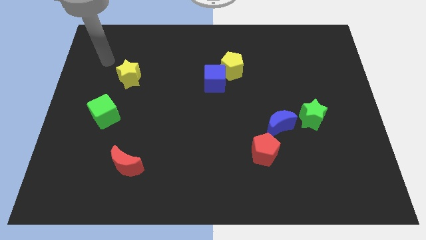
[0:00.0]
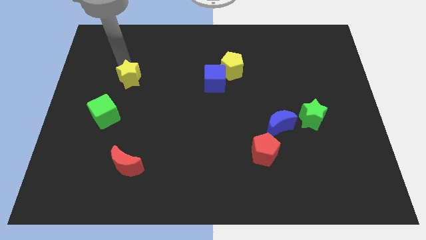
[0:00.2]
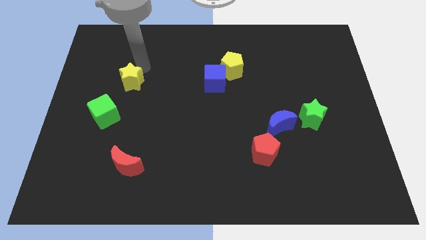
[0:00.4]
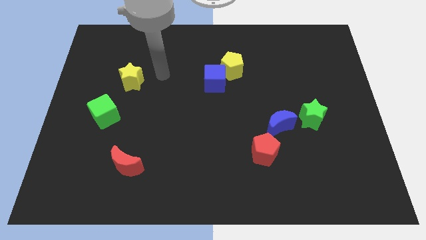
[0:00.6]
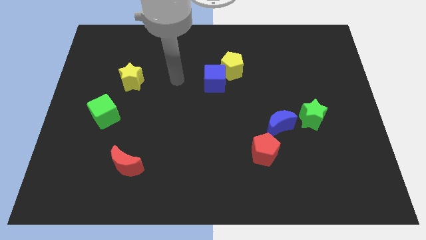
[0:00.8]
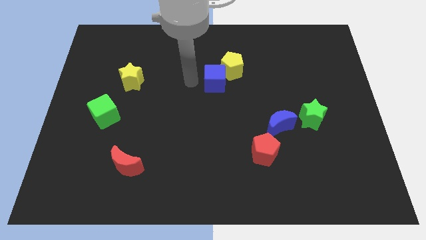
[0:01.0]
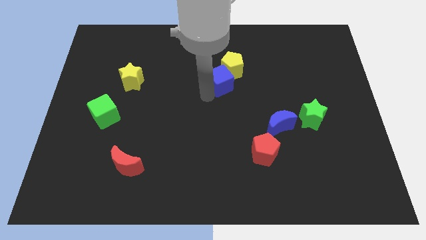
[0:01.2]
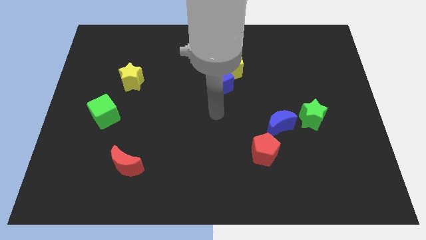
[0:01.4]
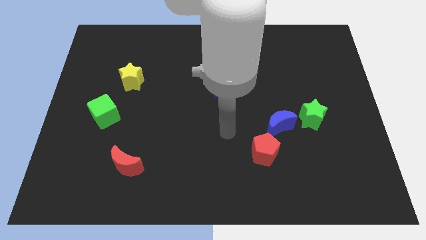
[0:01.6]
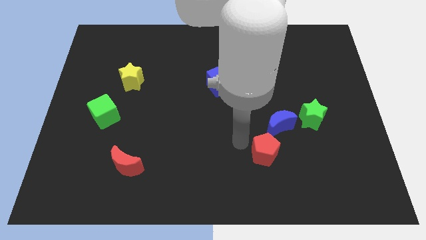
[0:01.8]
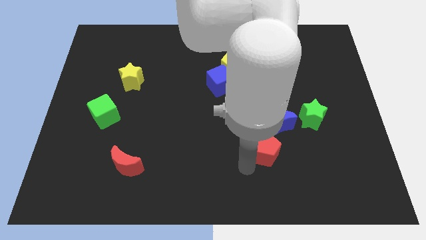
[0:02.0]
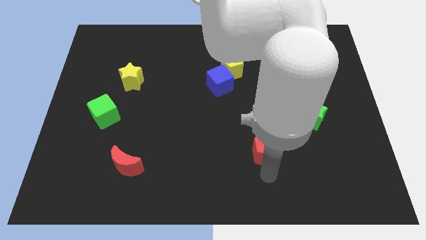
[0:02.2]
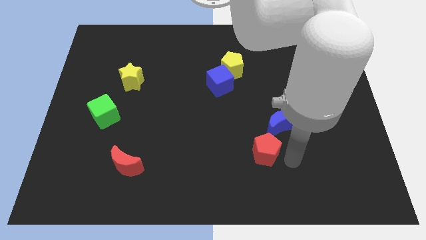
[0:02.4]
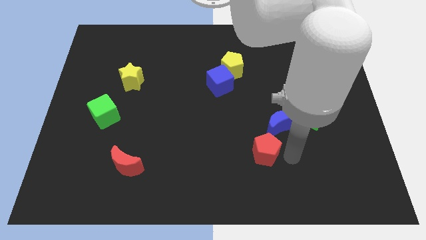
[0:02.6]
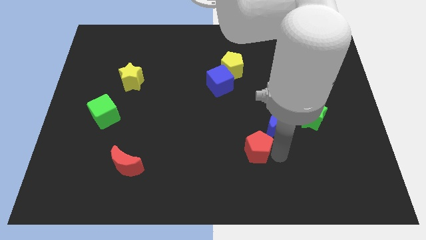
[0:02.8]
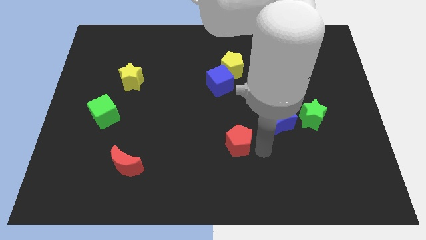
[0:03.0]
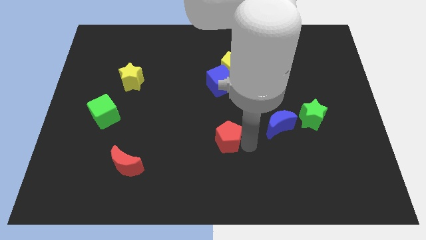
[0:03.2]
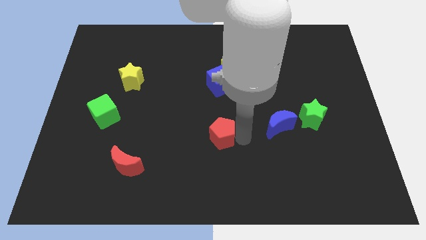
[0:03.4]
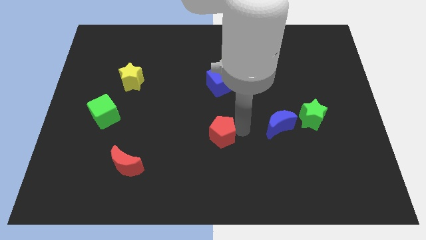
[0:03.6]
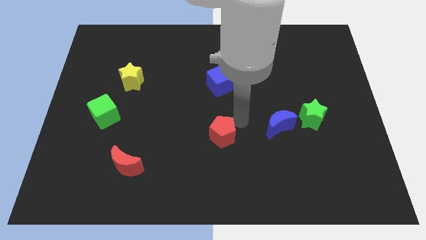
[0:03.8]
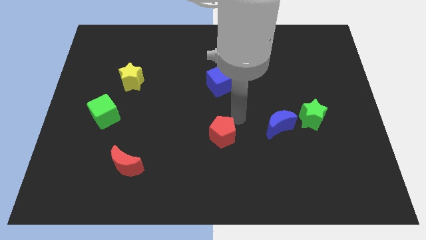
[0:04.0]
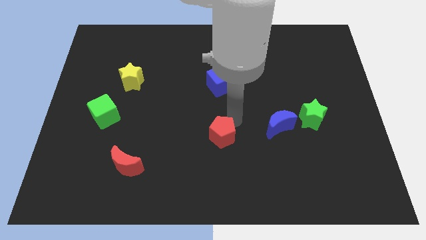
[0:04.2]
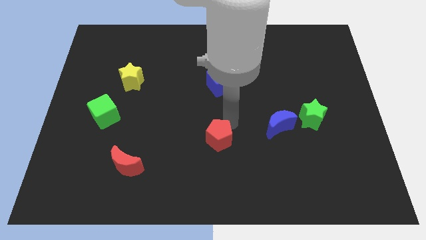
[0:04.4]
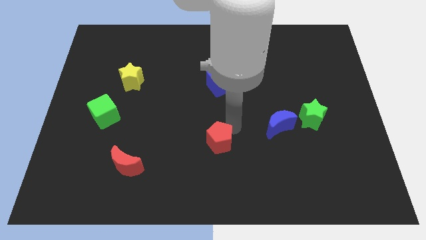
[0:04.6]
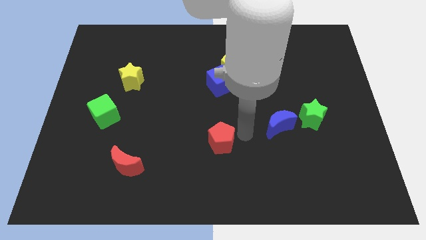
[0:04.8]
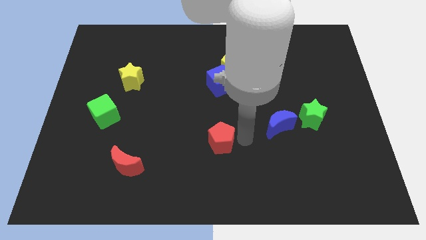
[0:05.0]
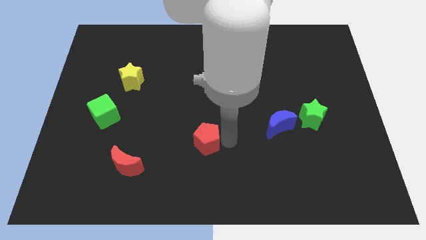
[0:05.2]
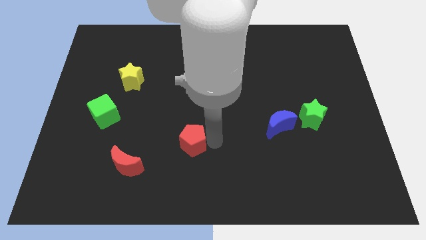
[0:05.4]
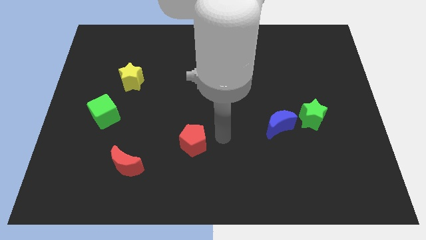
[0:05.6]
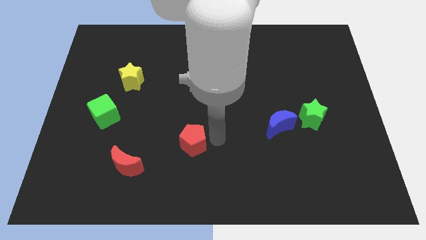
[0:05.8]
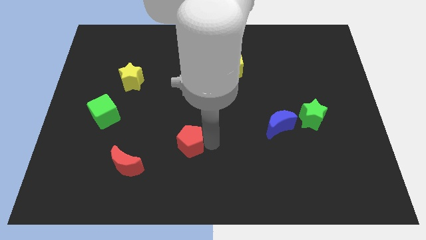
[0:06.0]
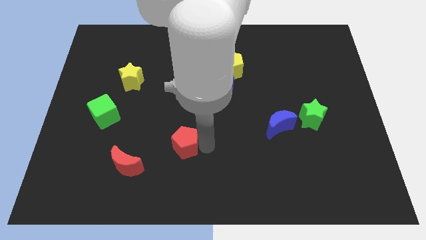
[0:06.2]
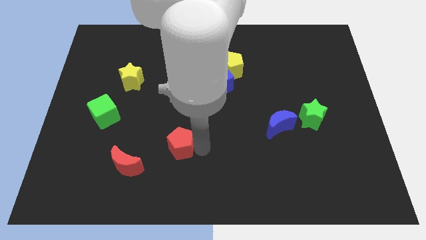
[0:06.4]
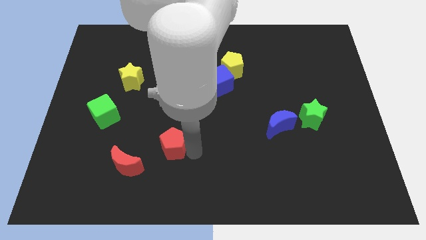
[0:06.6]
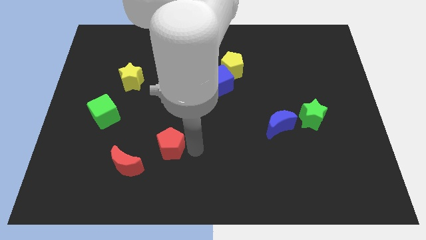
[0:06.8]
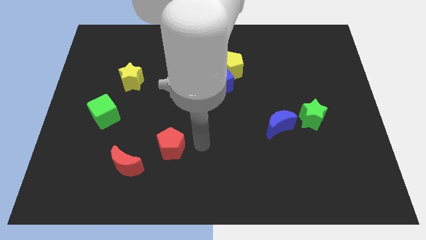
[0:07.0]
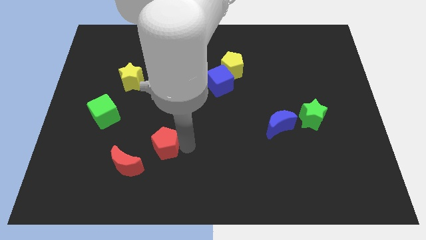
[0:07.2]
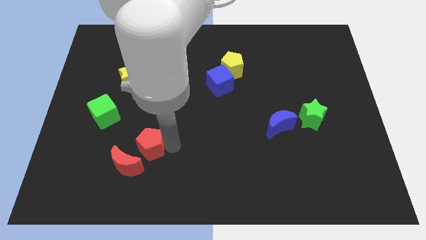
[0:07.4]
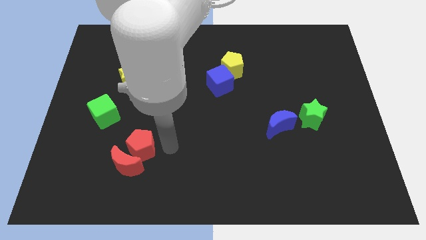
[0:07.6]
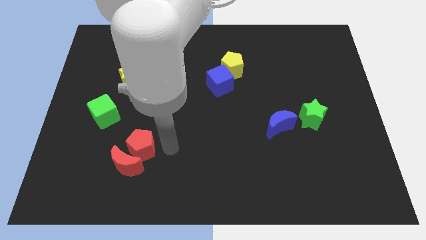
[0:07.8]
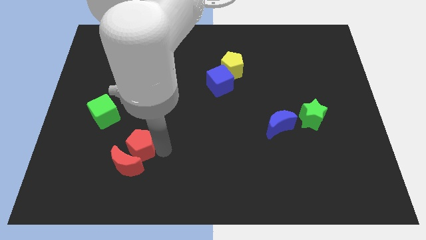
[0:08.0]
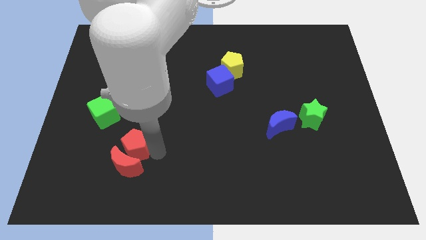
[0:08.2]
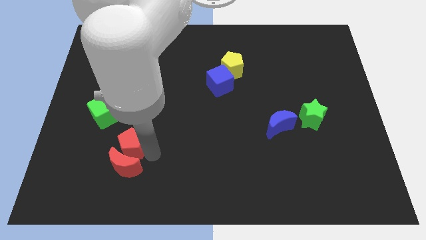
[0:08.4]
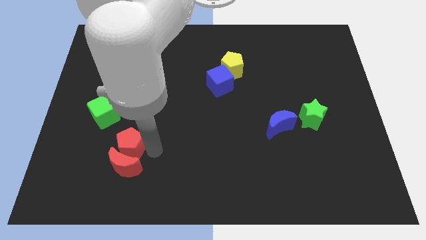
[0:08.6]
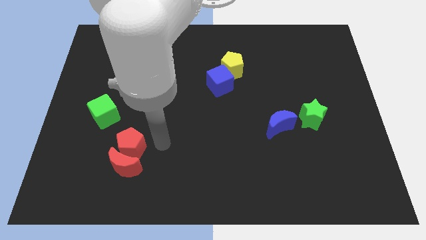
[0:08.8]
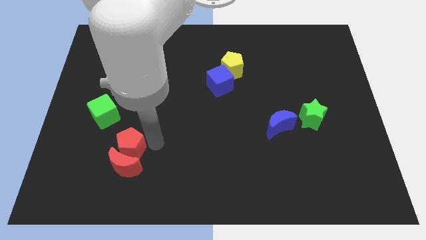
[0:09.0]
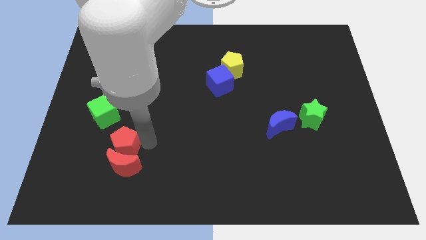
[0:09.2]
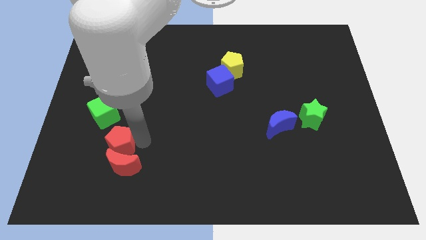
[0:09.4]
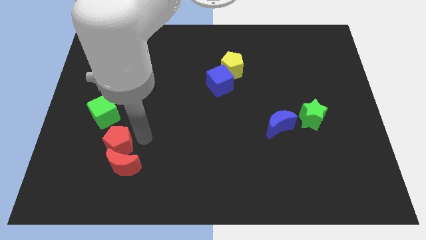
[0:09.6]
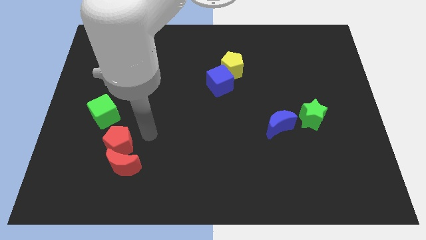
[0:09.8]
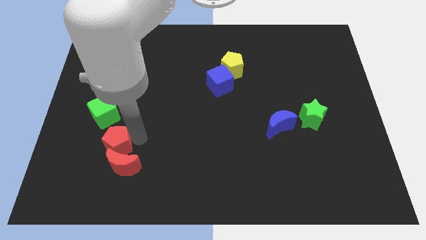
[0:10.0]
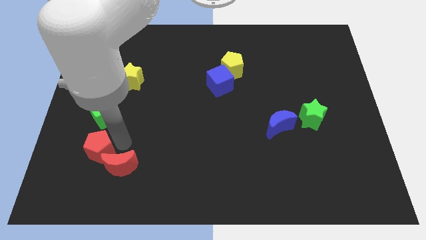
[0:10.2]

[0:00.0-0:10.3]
put the red pentagon just left of the red moon

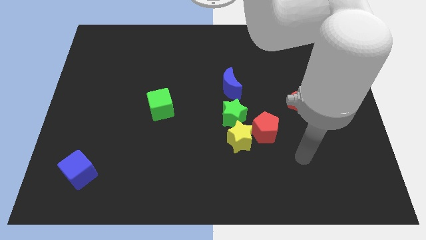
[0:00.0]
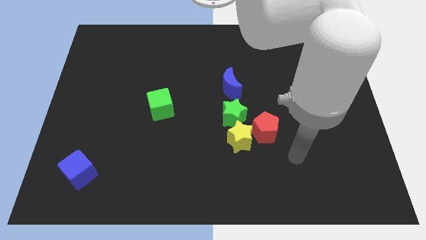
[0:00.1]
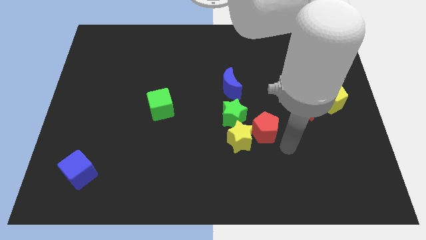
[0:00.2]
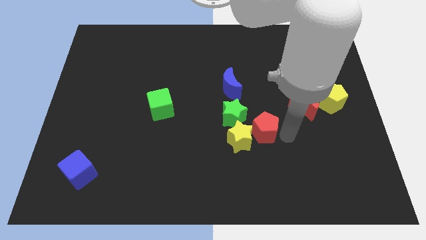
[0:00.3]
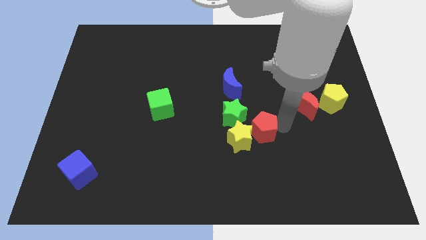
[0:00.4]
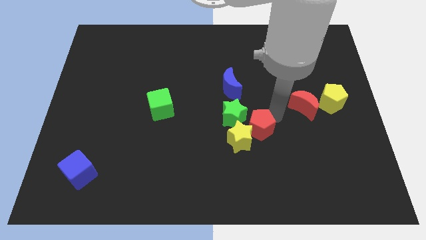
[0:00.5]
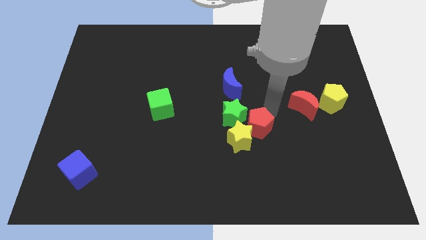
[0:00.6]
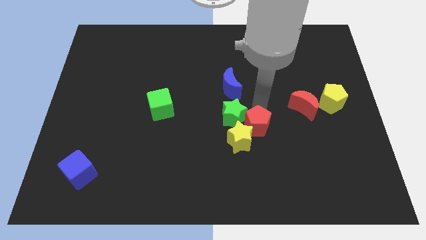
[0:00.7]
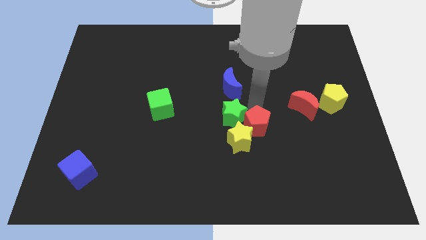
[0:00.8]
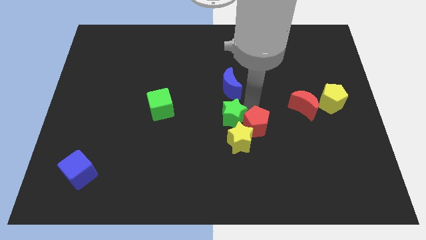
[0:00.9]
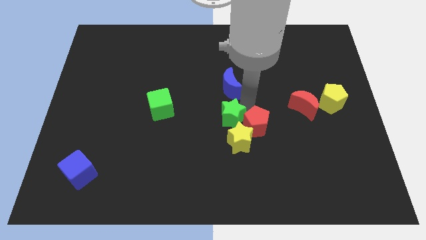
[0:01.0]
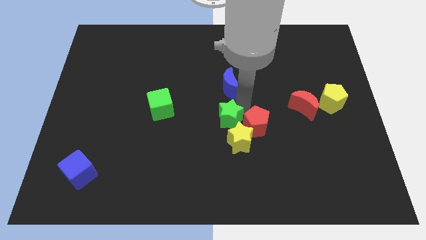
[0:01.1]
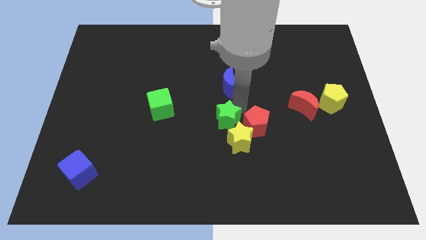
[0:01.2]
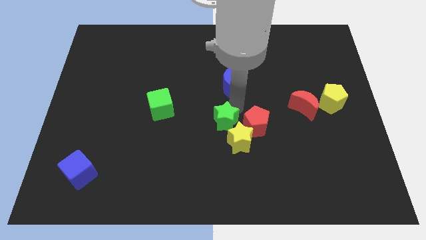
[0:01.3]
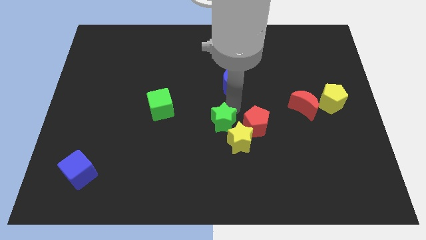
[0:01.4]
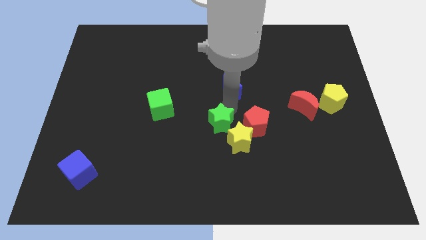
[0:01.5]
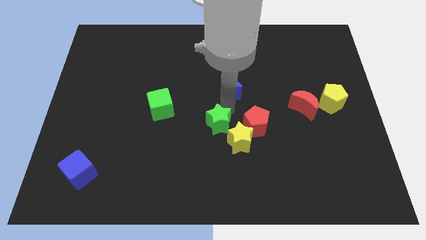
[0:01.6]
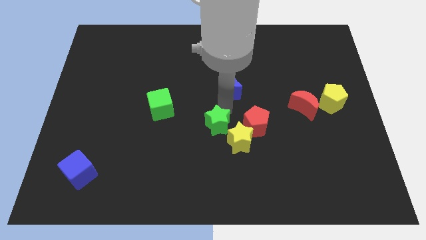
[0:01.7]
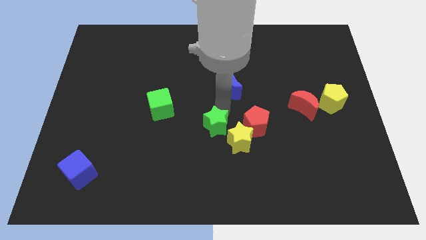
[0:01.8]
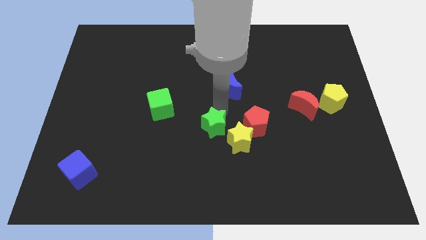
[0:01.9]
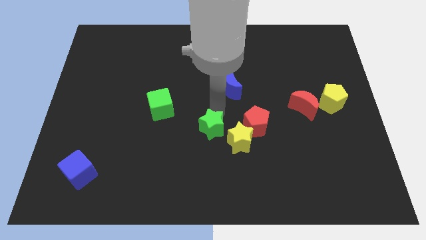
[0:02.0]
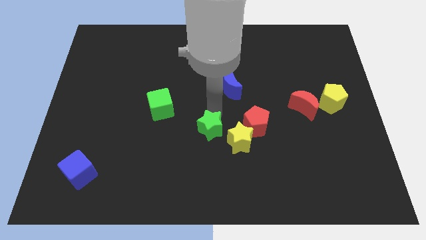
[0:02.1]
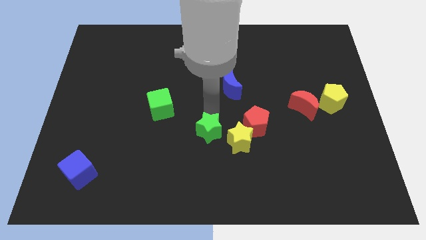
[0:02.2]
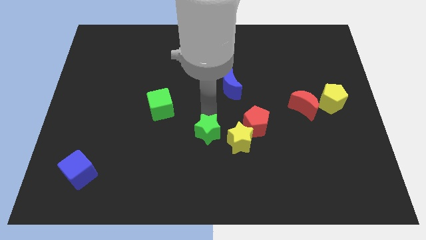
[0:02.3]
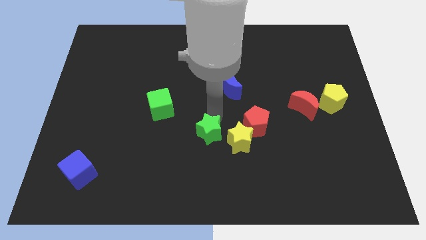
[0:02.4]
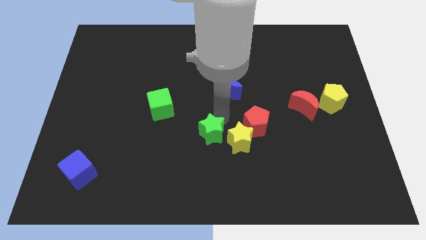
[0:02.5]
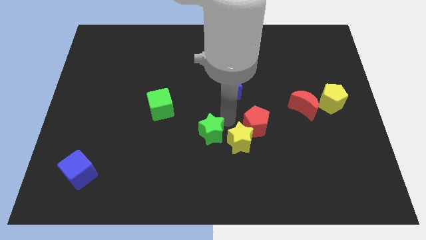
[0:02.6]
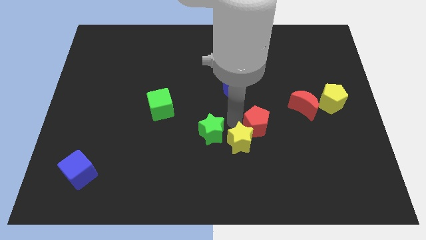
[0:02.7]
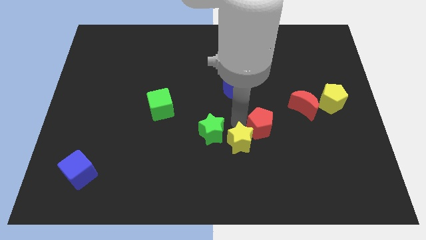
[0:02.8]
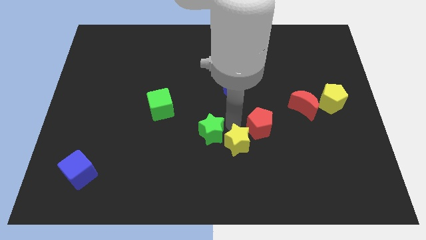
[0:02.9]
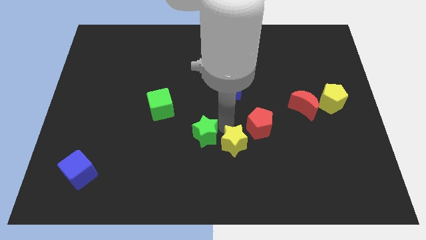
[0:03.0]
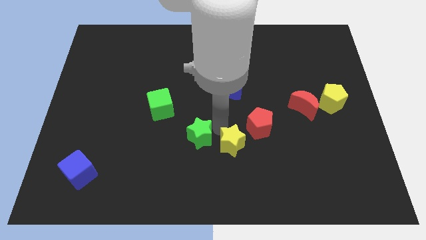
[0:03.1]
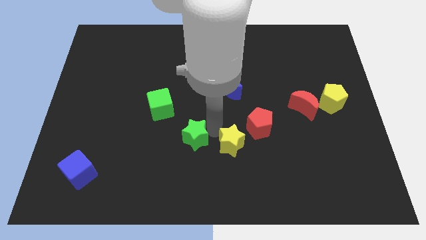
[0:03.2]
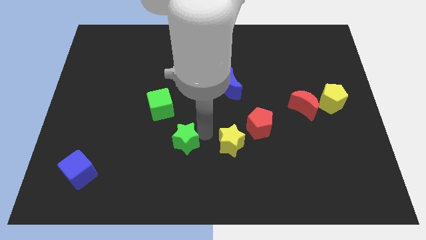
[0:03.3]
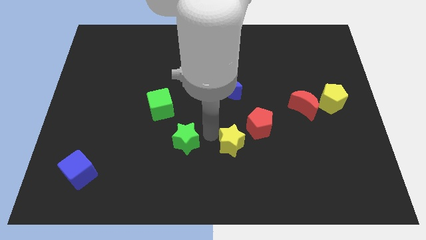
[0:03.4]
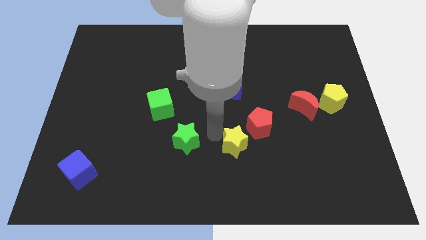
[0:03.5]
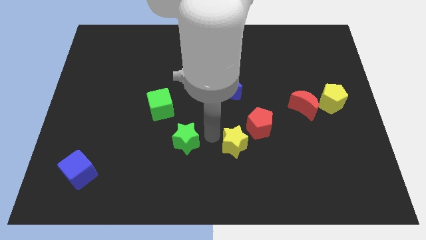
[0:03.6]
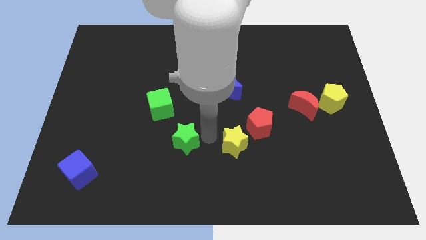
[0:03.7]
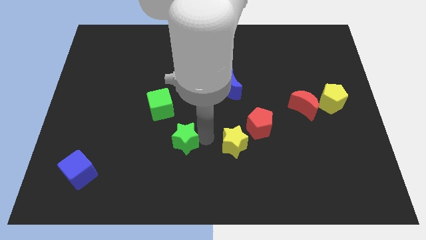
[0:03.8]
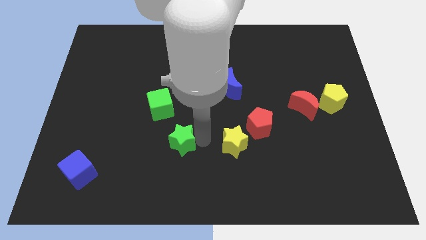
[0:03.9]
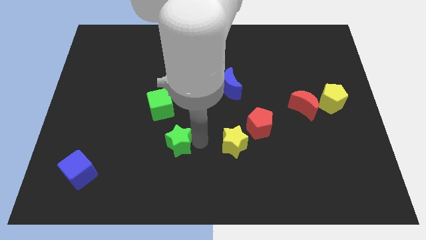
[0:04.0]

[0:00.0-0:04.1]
put the green star to the bottom side of the green cube
